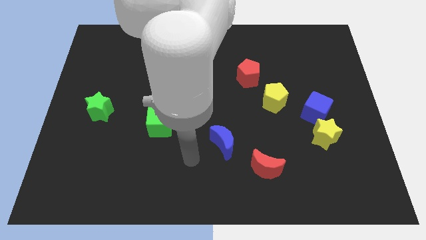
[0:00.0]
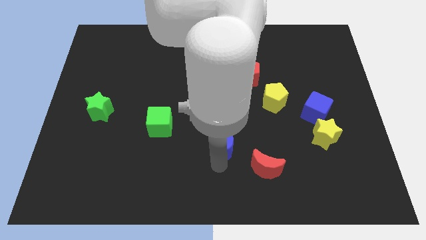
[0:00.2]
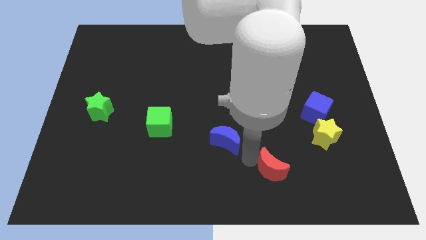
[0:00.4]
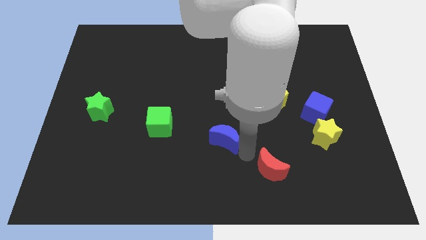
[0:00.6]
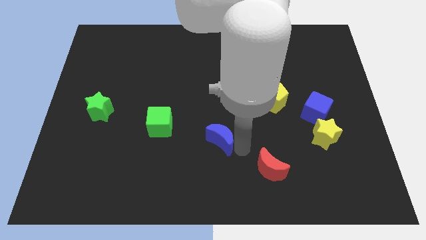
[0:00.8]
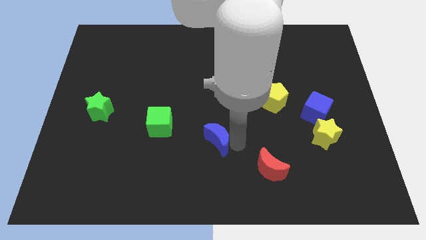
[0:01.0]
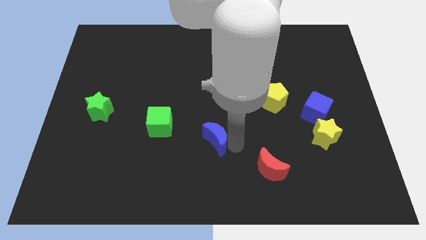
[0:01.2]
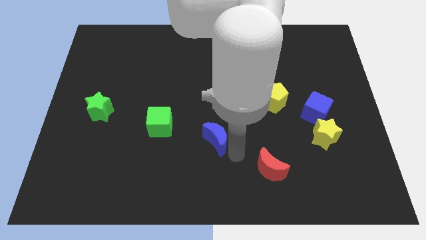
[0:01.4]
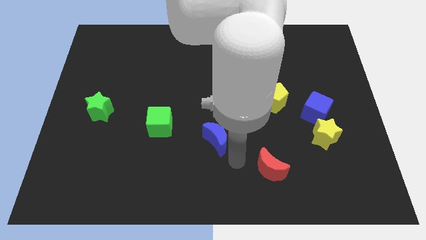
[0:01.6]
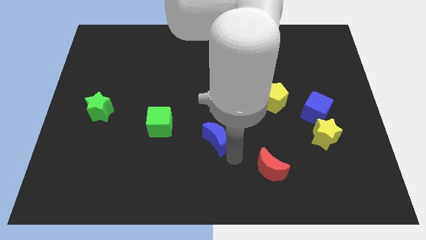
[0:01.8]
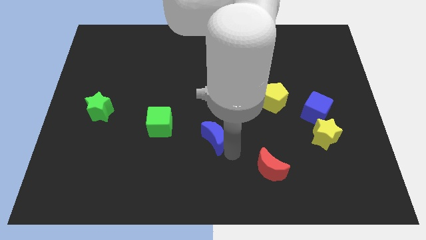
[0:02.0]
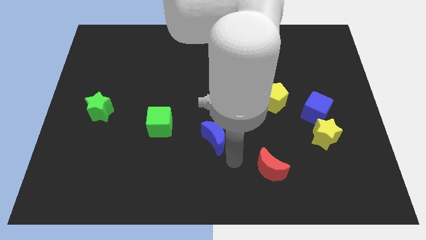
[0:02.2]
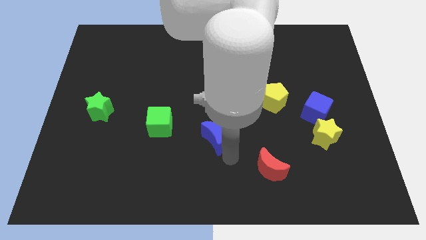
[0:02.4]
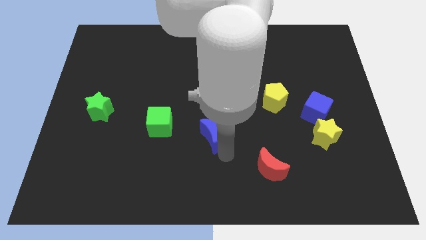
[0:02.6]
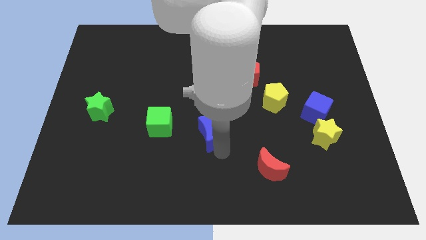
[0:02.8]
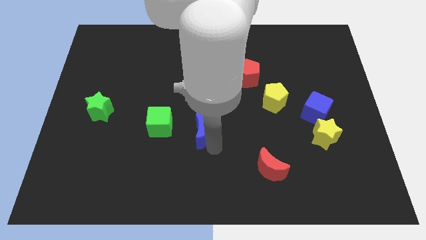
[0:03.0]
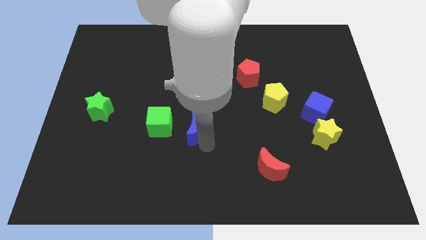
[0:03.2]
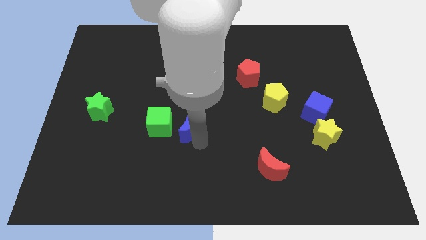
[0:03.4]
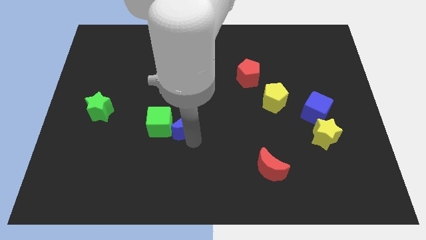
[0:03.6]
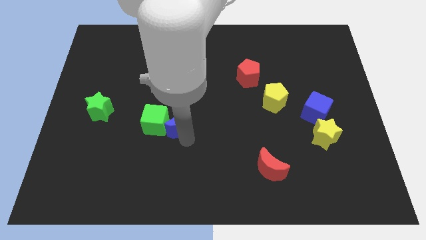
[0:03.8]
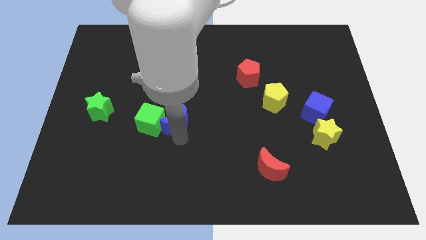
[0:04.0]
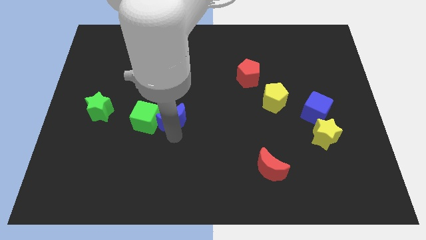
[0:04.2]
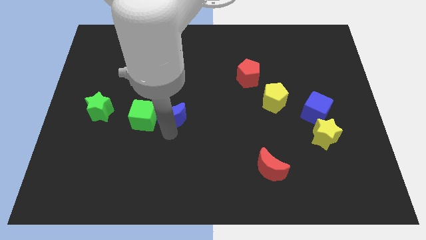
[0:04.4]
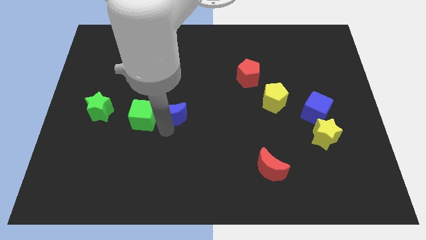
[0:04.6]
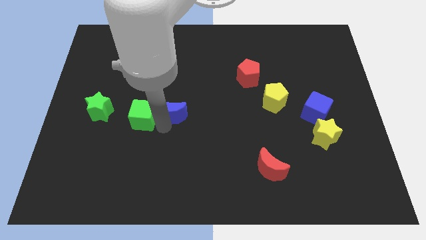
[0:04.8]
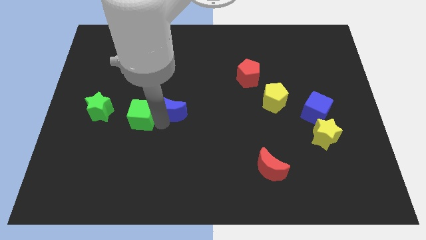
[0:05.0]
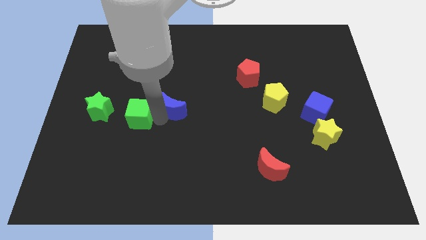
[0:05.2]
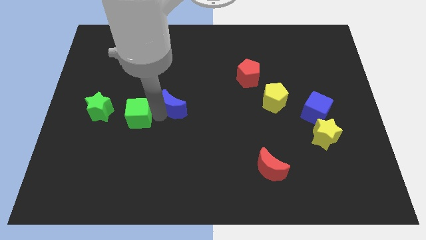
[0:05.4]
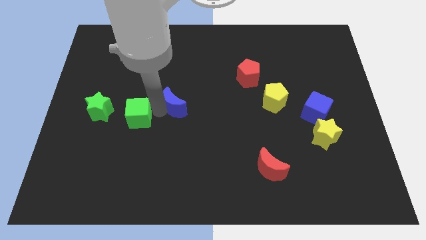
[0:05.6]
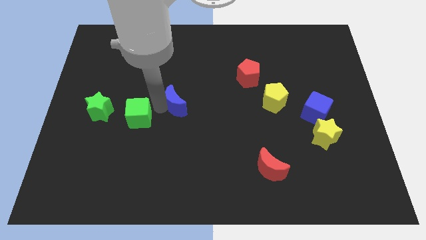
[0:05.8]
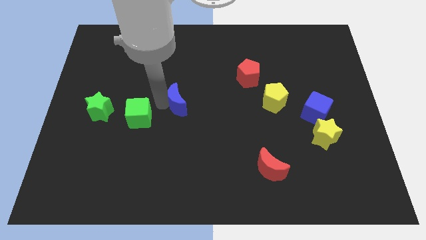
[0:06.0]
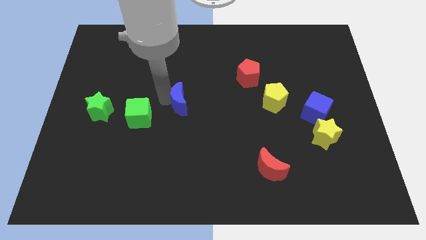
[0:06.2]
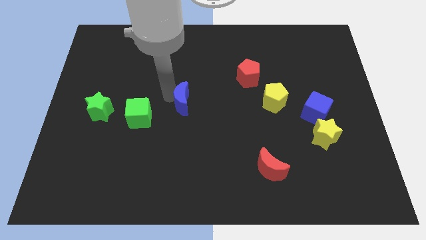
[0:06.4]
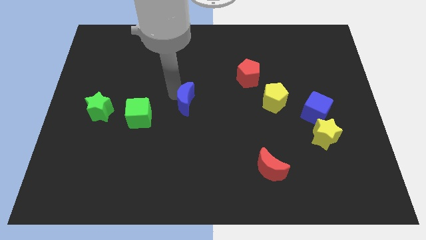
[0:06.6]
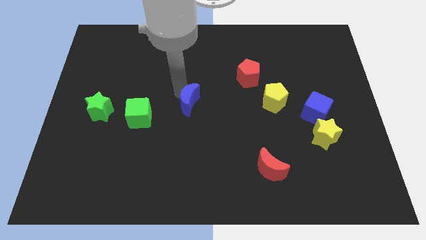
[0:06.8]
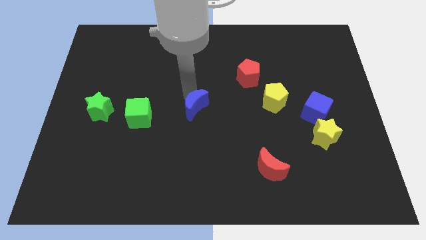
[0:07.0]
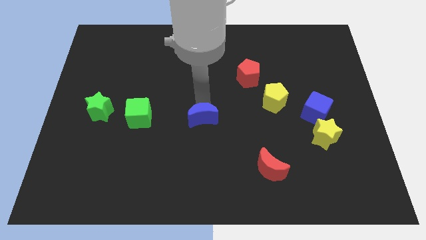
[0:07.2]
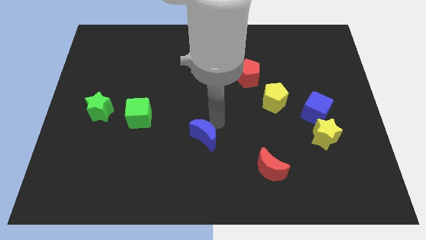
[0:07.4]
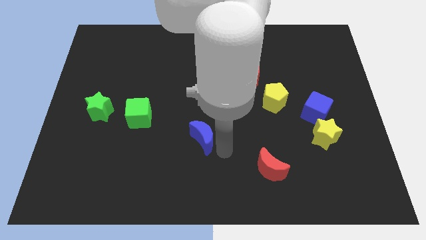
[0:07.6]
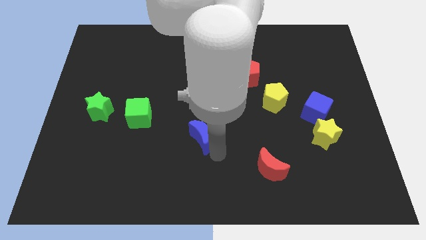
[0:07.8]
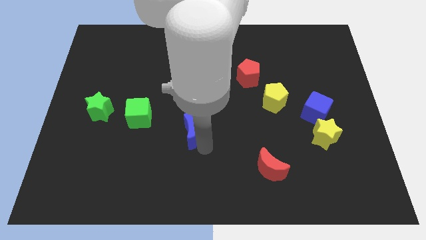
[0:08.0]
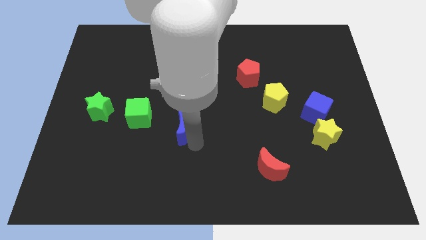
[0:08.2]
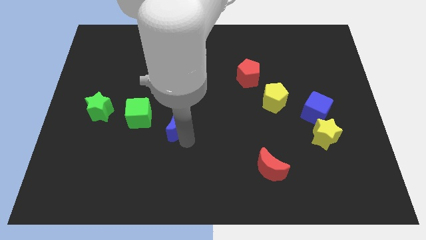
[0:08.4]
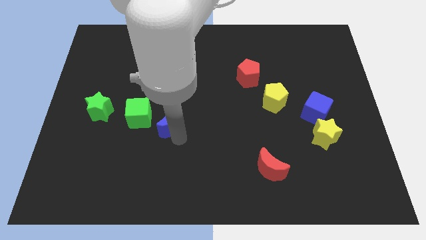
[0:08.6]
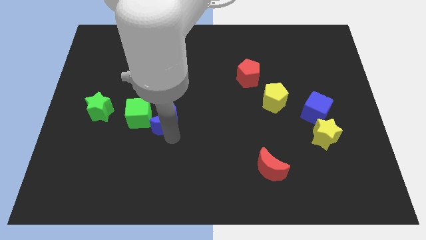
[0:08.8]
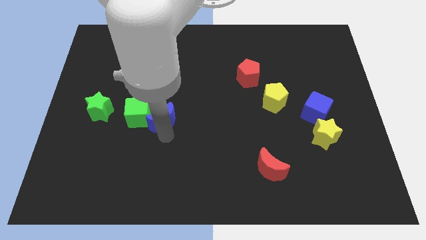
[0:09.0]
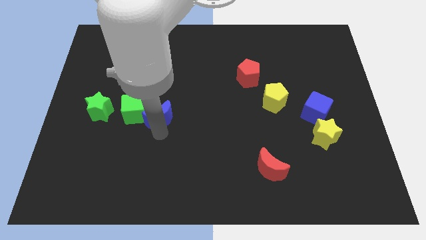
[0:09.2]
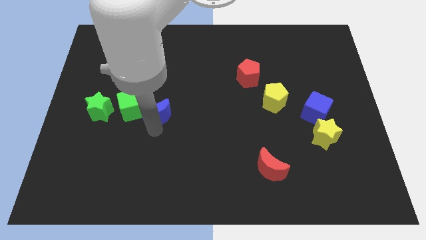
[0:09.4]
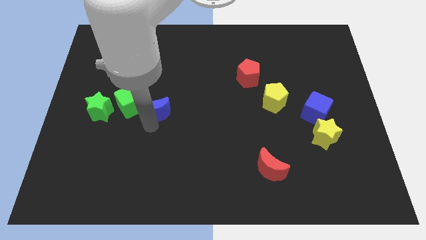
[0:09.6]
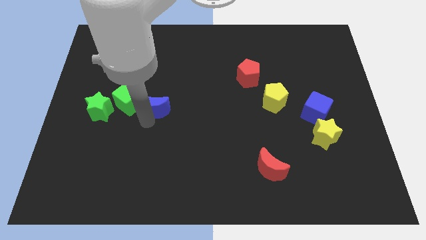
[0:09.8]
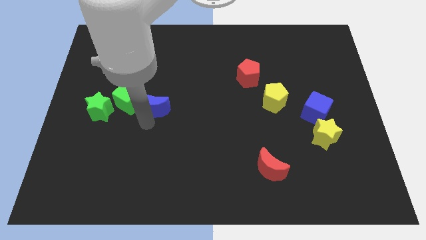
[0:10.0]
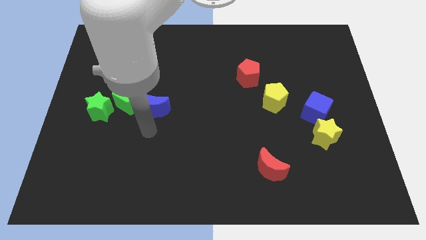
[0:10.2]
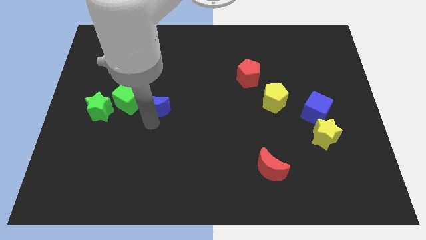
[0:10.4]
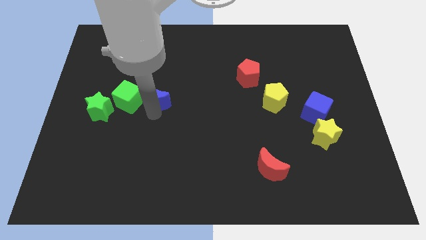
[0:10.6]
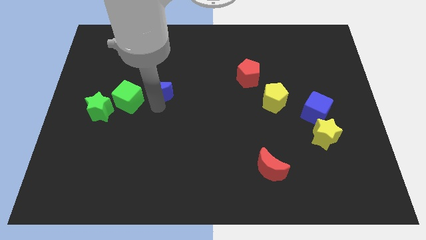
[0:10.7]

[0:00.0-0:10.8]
move the blue moon diagonally up and left

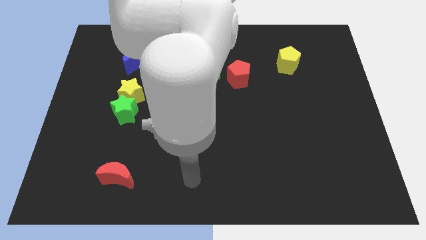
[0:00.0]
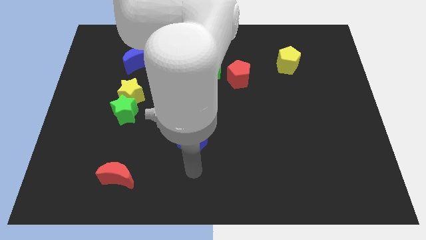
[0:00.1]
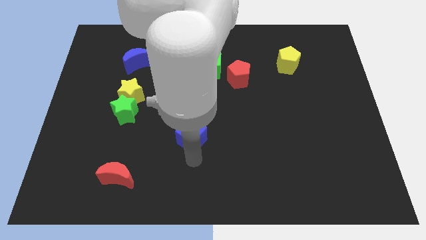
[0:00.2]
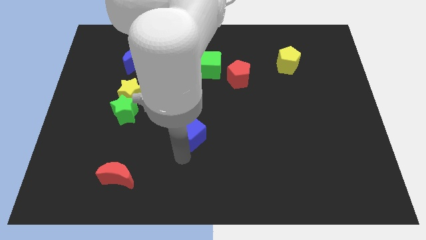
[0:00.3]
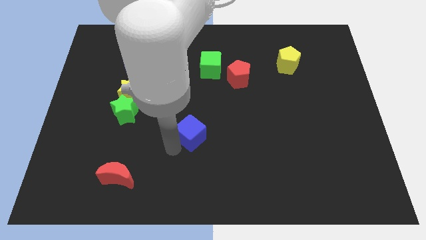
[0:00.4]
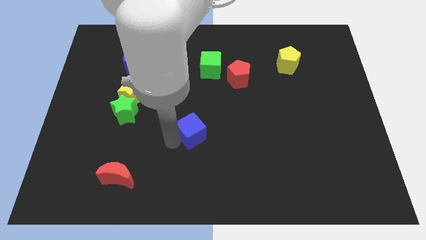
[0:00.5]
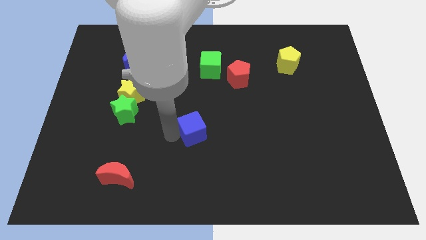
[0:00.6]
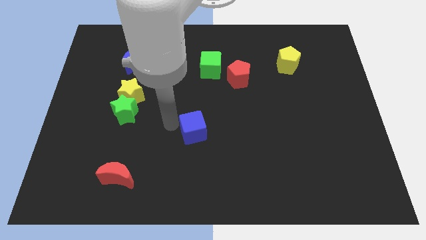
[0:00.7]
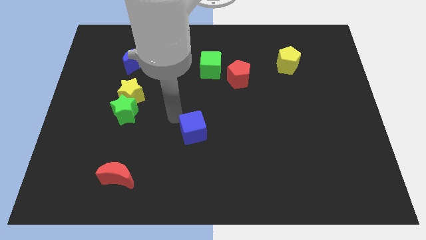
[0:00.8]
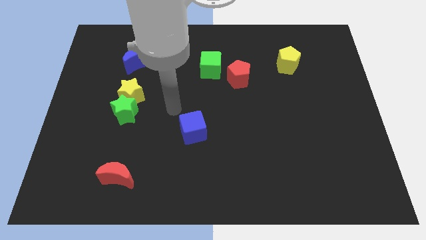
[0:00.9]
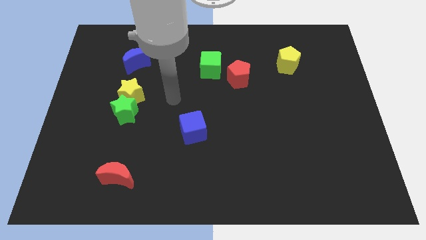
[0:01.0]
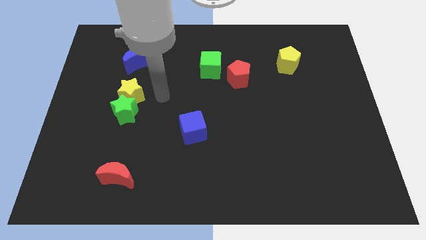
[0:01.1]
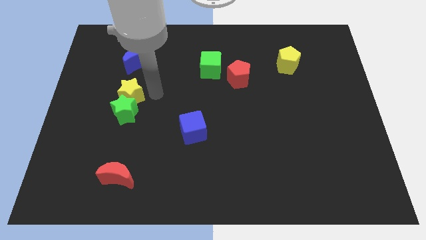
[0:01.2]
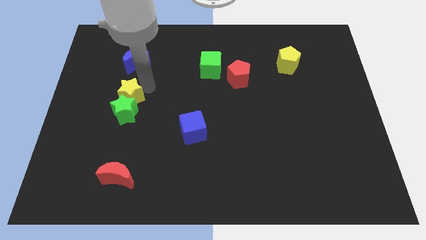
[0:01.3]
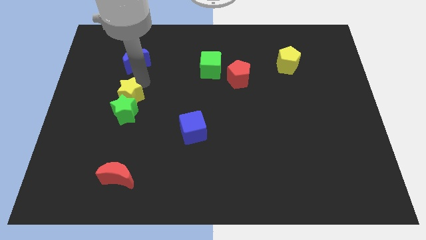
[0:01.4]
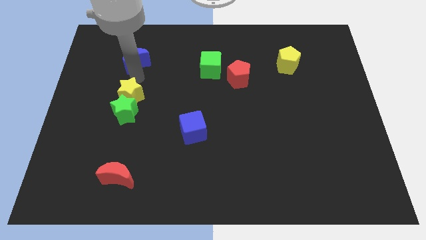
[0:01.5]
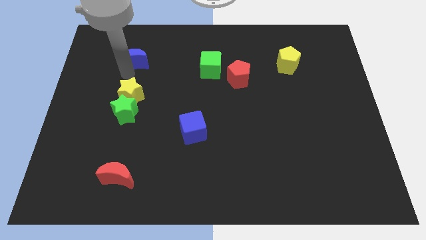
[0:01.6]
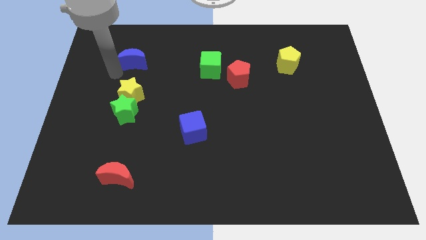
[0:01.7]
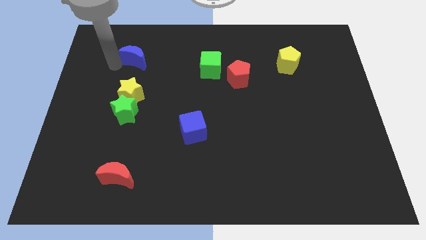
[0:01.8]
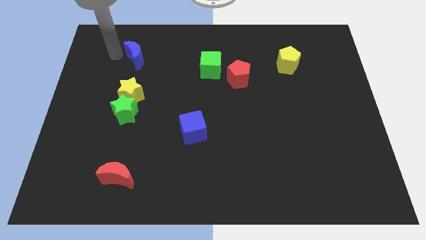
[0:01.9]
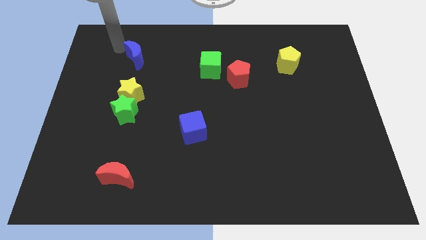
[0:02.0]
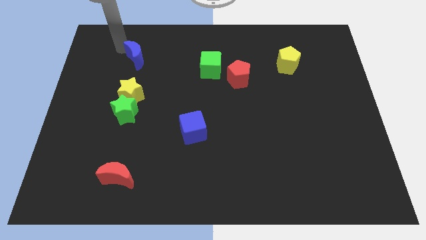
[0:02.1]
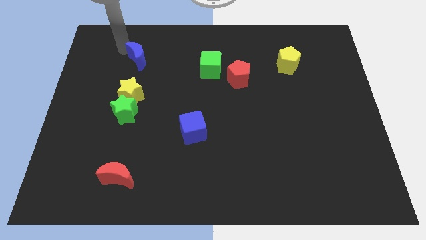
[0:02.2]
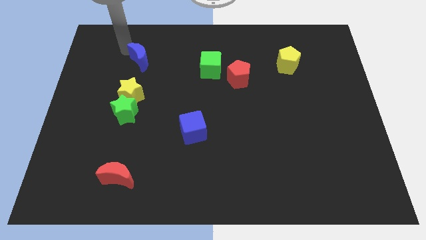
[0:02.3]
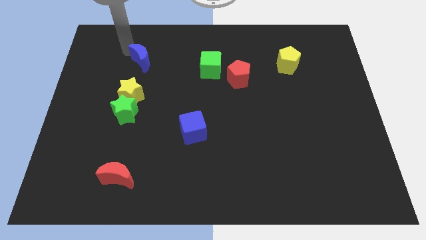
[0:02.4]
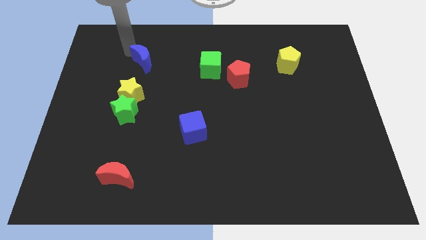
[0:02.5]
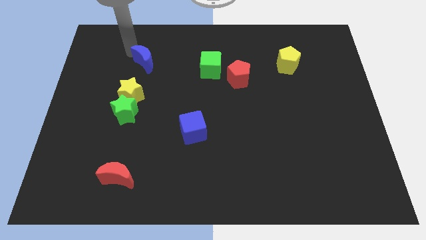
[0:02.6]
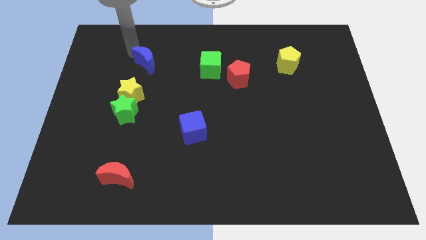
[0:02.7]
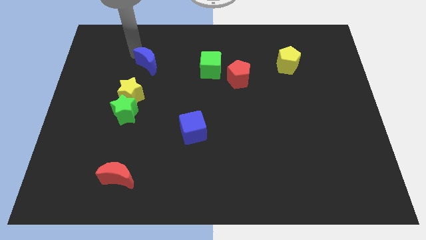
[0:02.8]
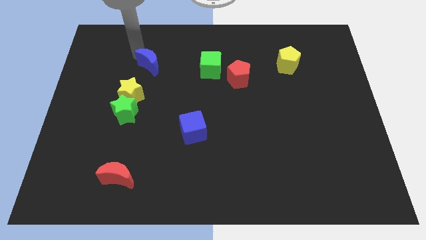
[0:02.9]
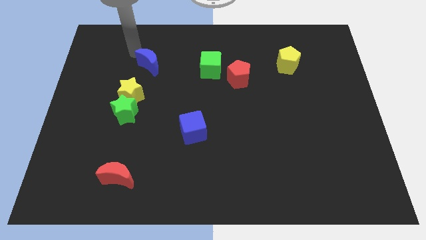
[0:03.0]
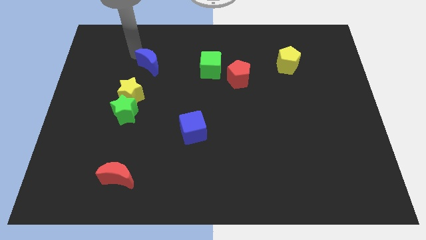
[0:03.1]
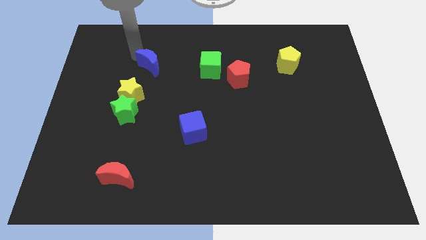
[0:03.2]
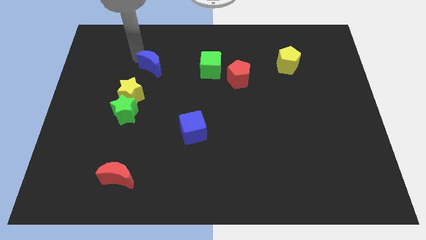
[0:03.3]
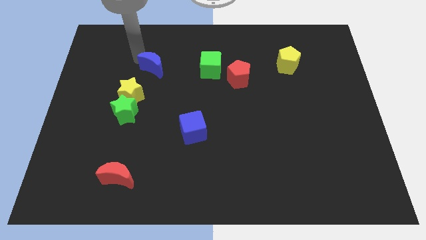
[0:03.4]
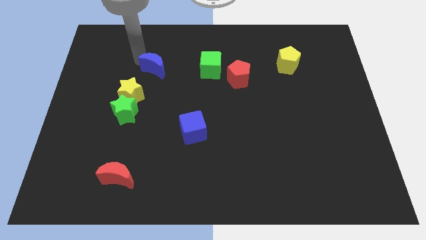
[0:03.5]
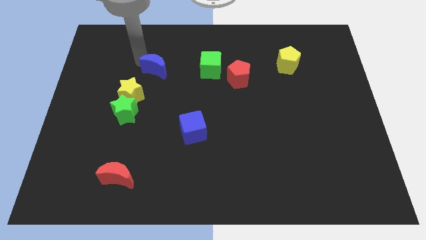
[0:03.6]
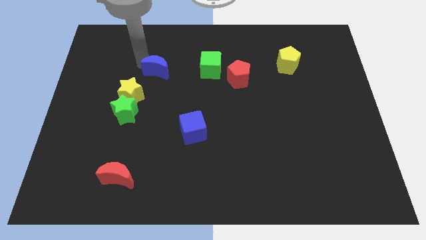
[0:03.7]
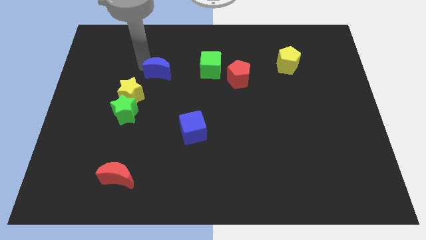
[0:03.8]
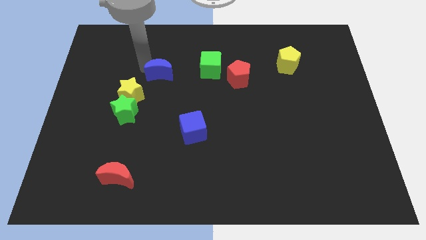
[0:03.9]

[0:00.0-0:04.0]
push the blue moon downwards and then to the right somewhat
